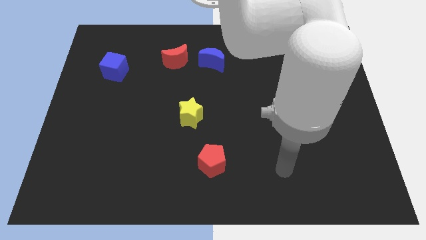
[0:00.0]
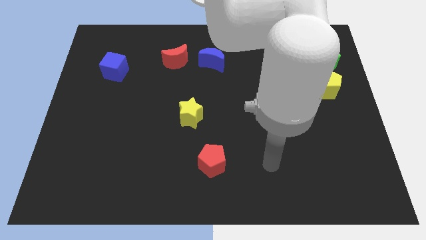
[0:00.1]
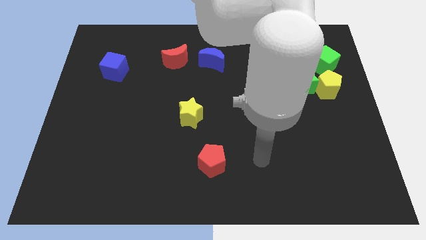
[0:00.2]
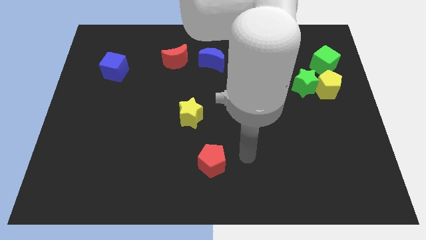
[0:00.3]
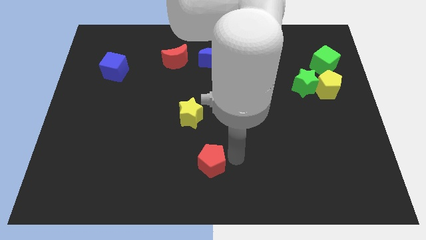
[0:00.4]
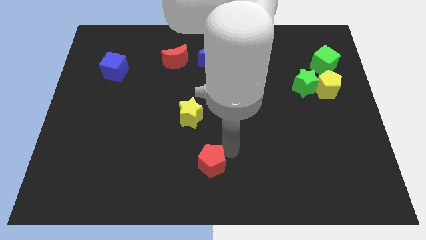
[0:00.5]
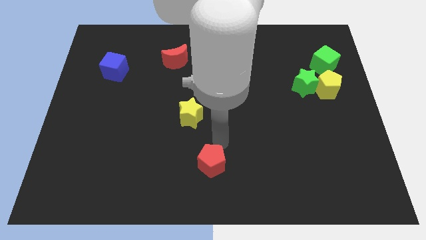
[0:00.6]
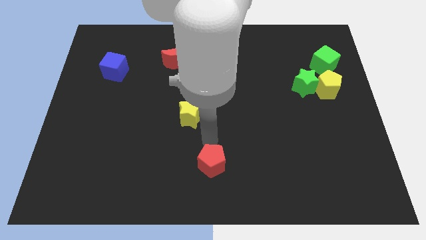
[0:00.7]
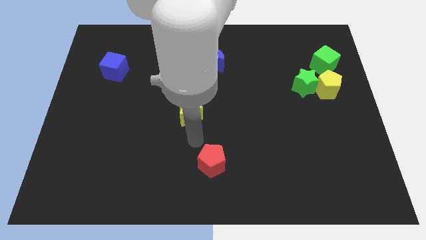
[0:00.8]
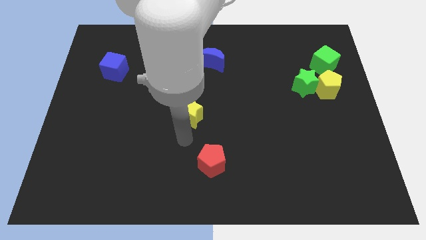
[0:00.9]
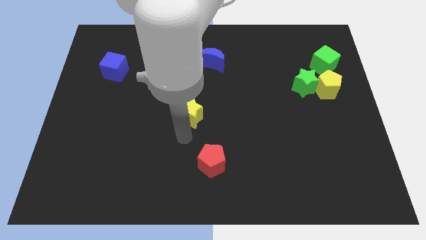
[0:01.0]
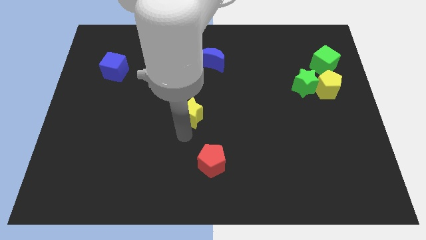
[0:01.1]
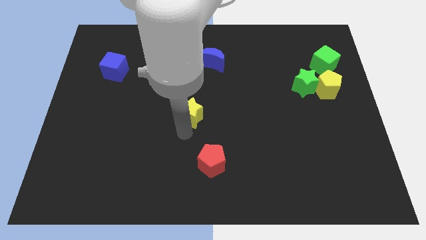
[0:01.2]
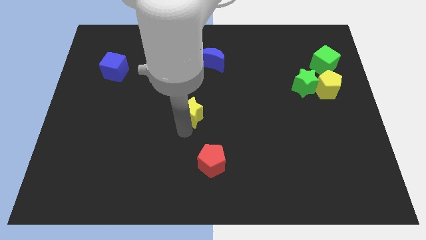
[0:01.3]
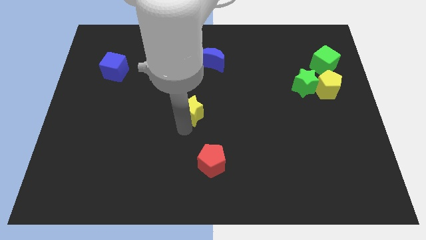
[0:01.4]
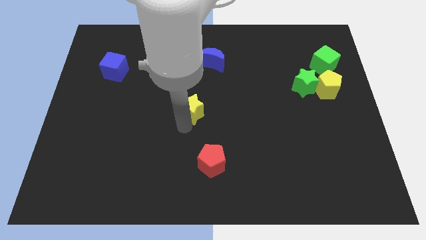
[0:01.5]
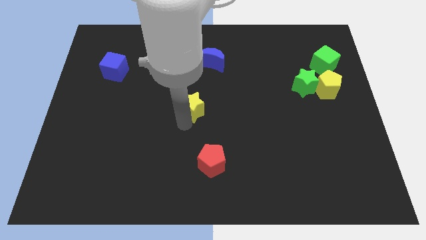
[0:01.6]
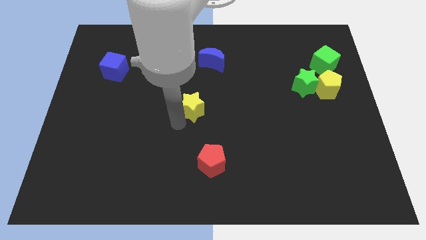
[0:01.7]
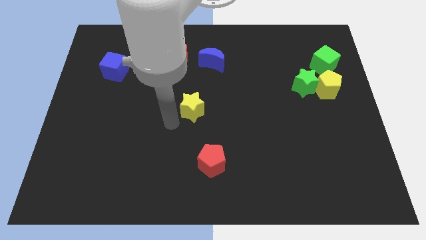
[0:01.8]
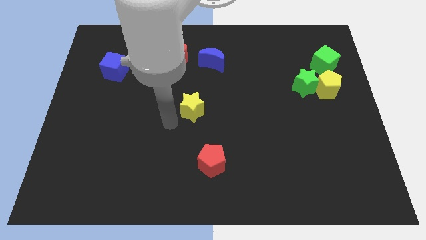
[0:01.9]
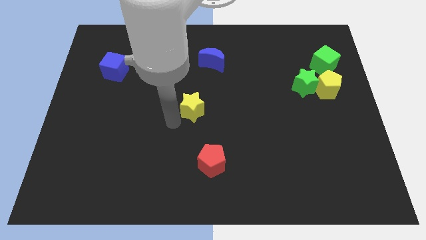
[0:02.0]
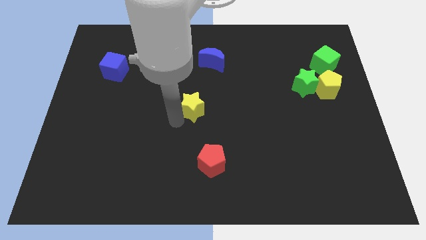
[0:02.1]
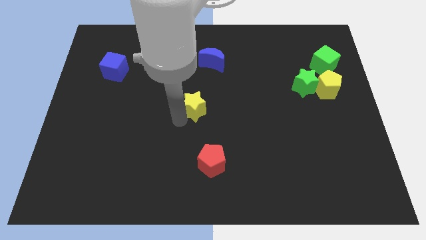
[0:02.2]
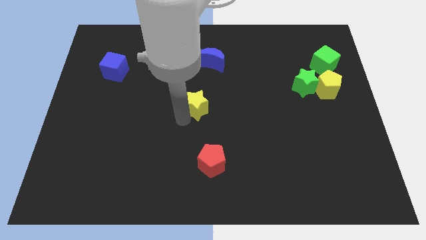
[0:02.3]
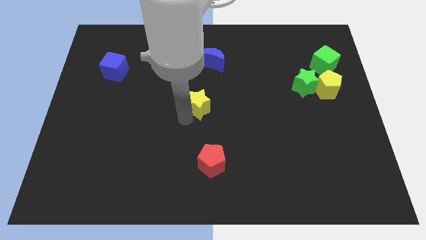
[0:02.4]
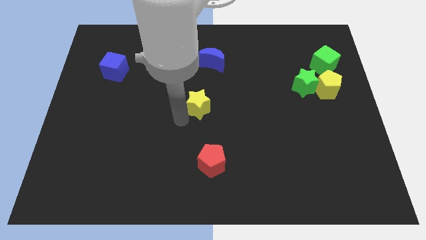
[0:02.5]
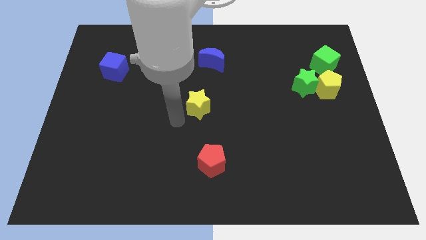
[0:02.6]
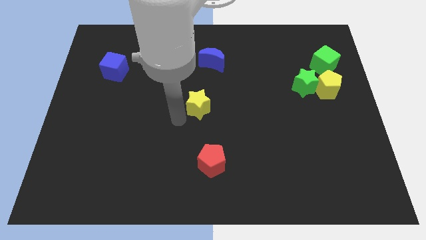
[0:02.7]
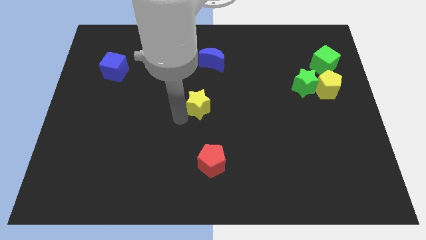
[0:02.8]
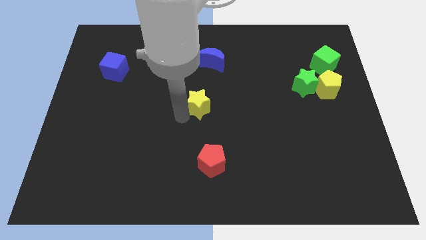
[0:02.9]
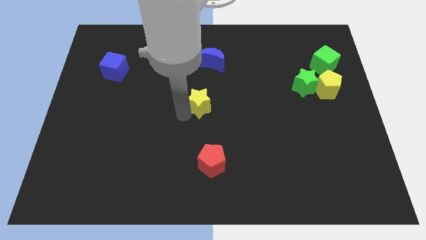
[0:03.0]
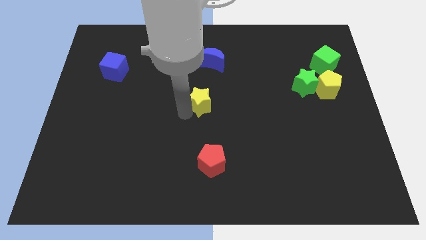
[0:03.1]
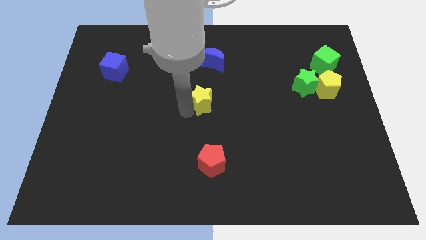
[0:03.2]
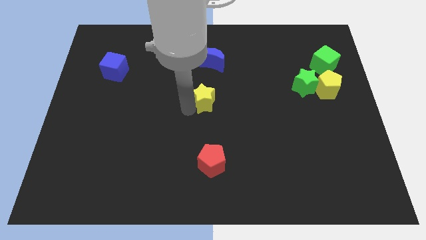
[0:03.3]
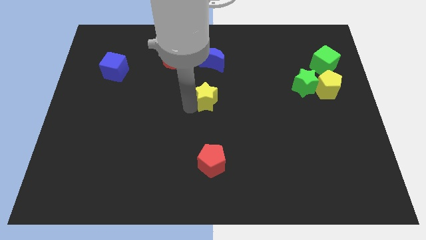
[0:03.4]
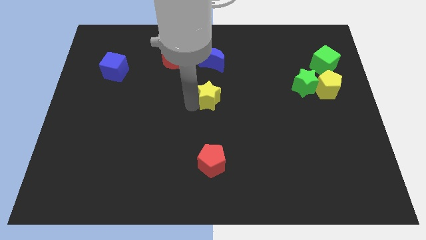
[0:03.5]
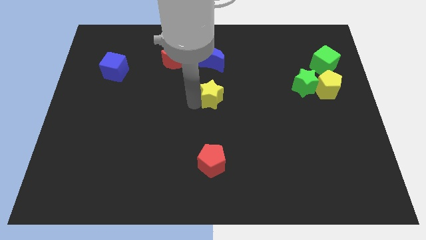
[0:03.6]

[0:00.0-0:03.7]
move the yellow star upwards and to the right diagonally a bit

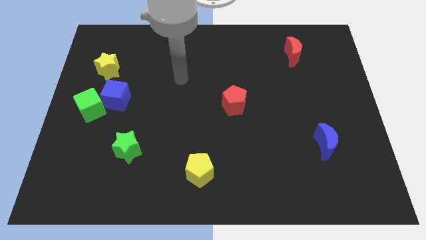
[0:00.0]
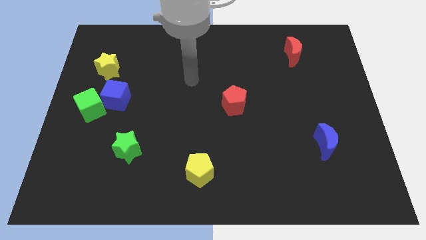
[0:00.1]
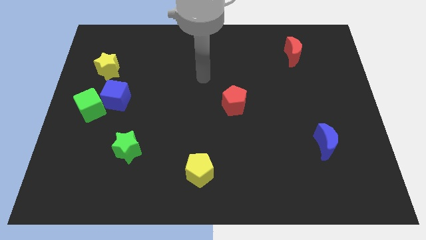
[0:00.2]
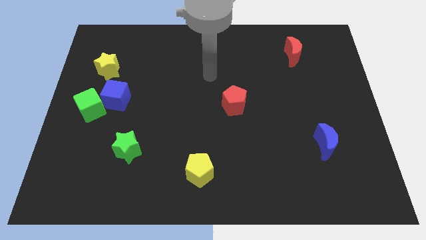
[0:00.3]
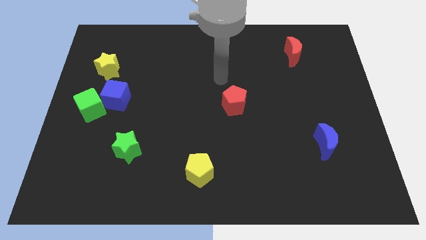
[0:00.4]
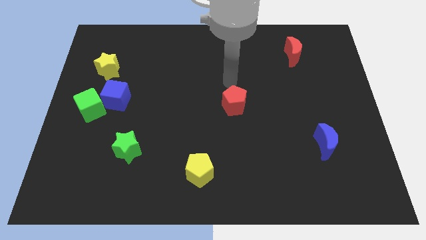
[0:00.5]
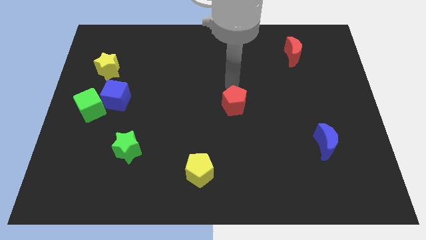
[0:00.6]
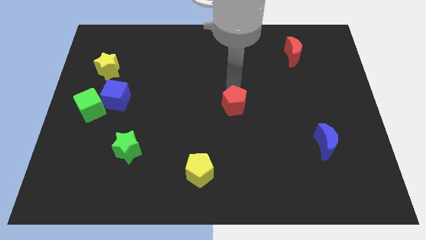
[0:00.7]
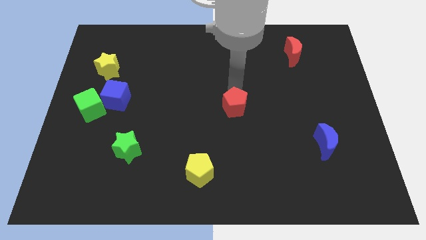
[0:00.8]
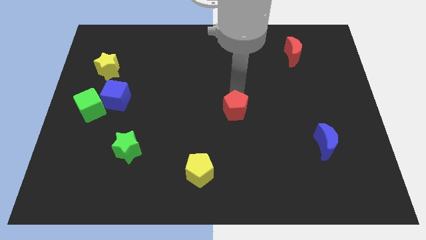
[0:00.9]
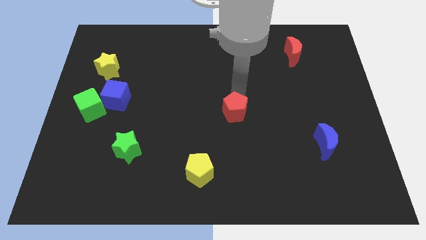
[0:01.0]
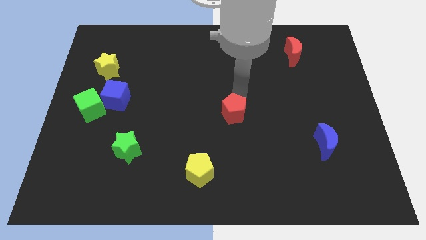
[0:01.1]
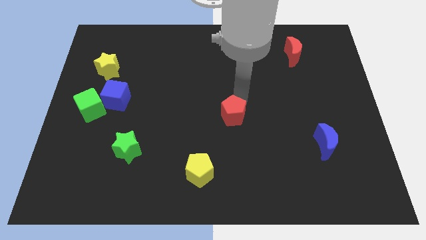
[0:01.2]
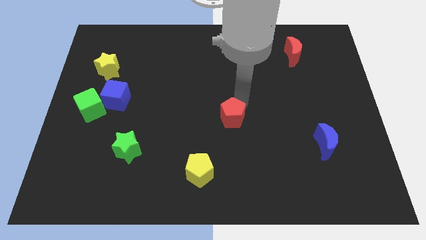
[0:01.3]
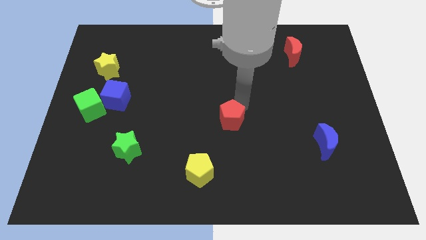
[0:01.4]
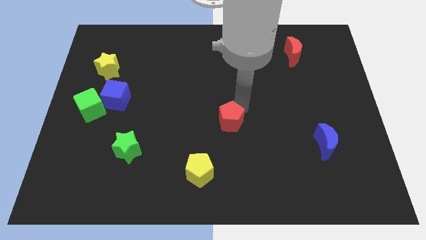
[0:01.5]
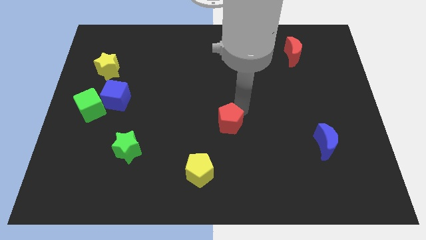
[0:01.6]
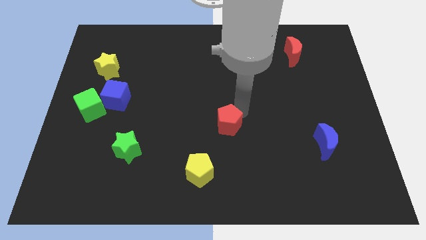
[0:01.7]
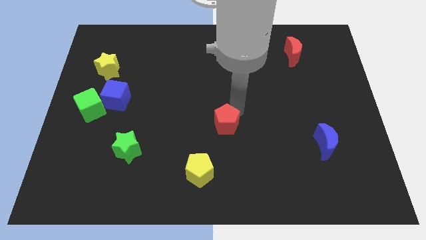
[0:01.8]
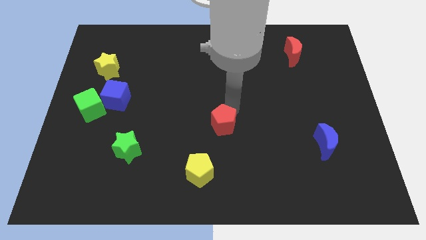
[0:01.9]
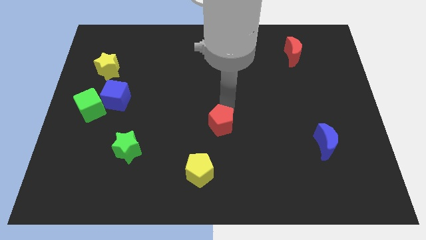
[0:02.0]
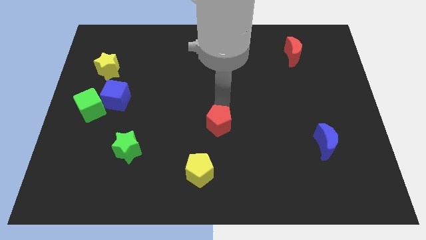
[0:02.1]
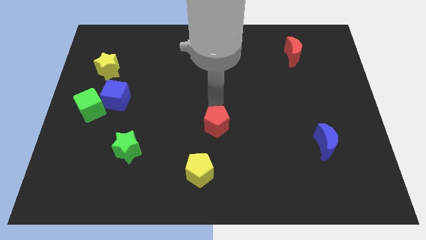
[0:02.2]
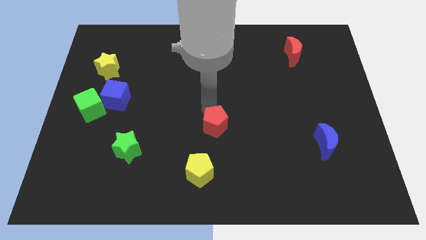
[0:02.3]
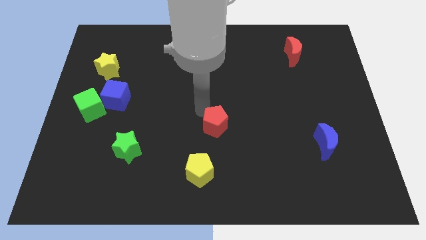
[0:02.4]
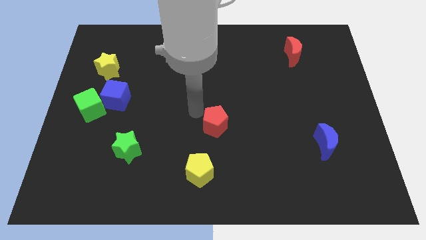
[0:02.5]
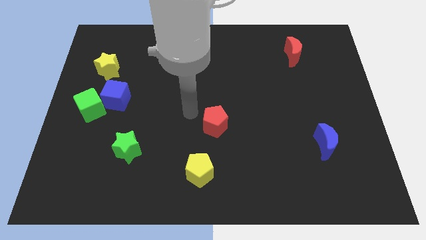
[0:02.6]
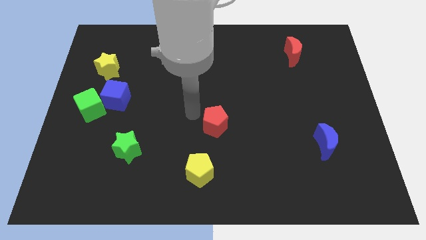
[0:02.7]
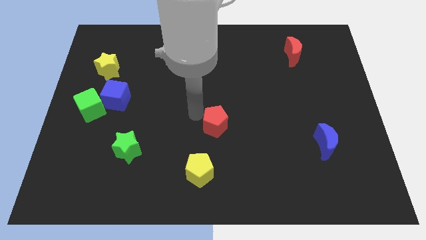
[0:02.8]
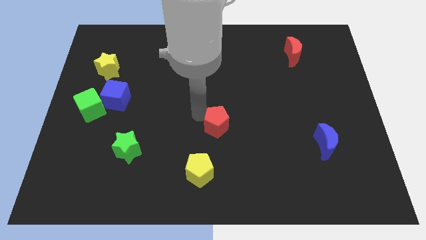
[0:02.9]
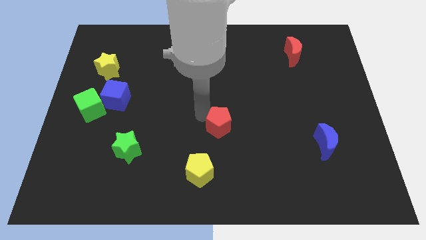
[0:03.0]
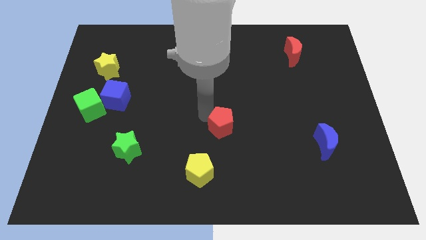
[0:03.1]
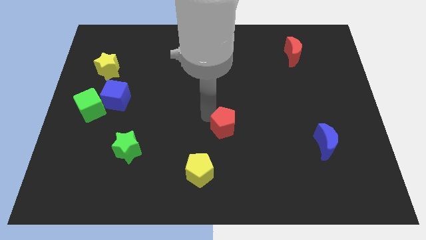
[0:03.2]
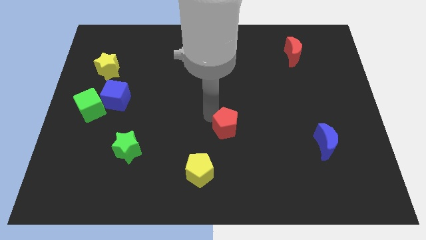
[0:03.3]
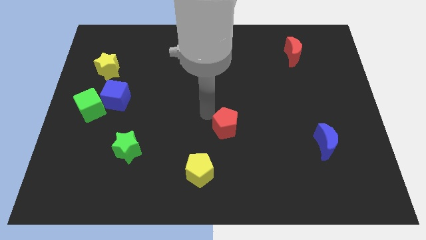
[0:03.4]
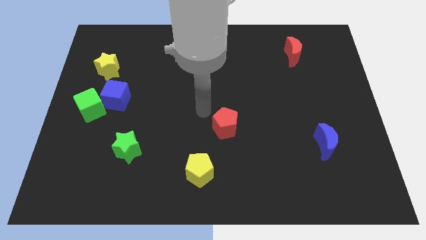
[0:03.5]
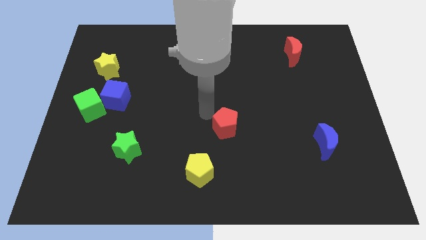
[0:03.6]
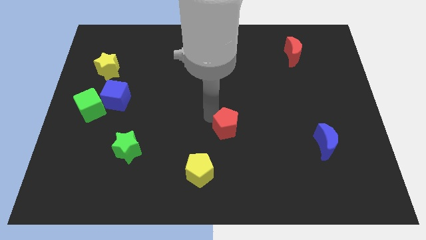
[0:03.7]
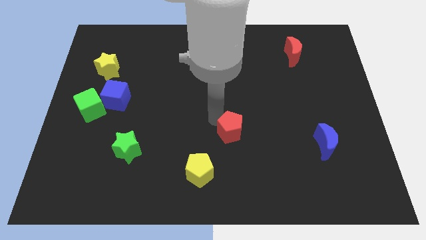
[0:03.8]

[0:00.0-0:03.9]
slightly push the red pentagon down

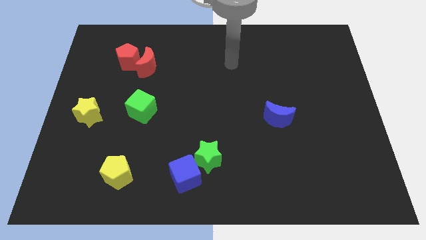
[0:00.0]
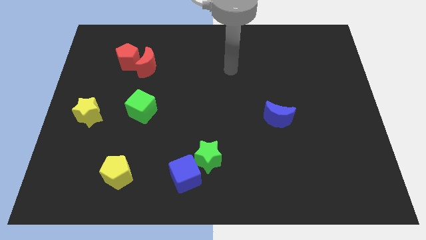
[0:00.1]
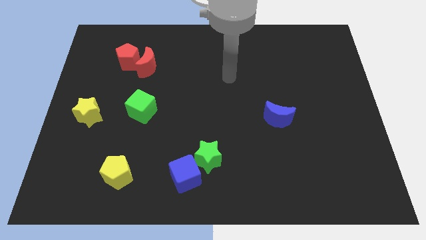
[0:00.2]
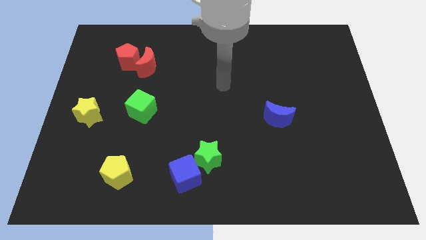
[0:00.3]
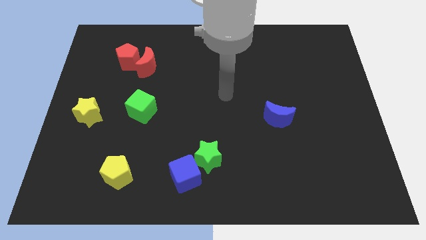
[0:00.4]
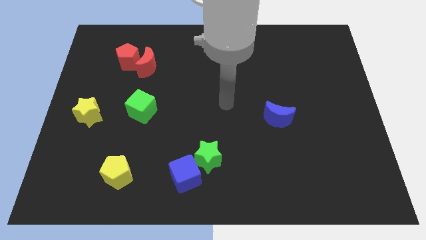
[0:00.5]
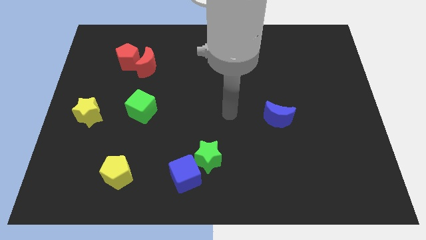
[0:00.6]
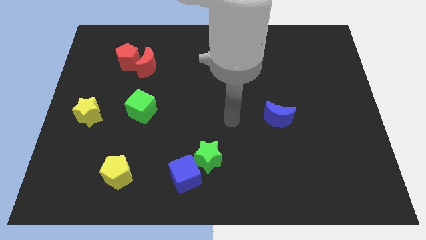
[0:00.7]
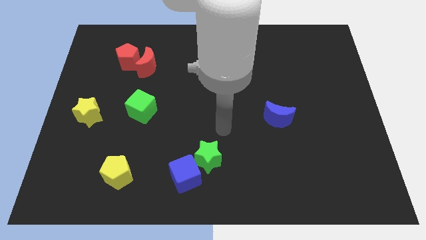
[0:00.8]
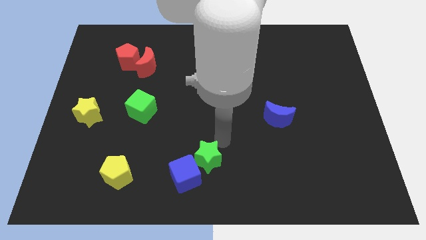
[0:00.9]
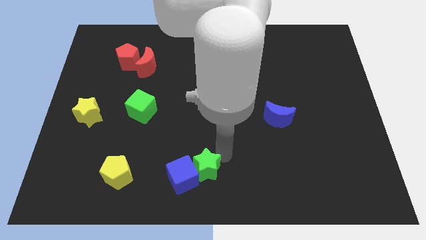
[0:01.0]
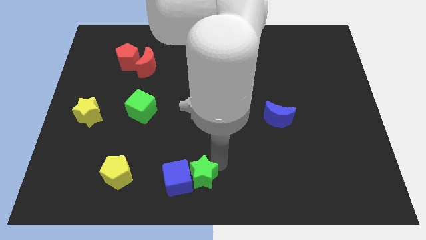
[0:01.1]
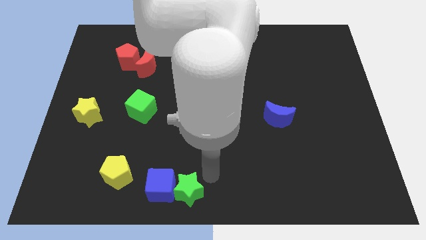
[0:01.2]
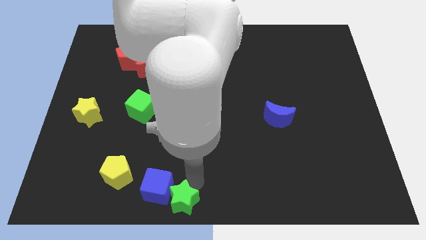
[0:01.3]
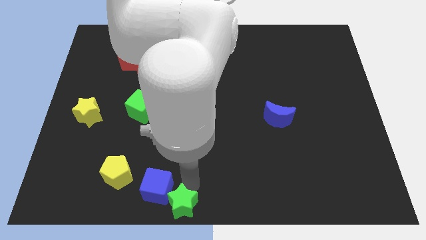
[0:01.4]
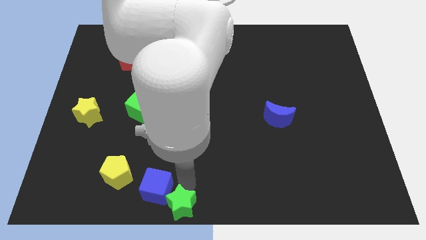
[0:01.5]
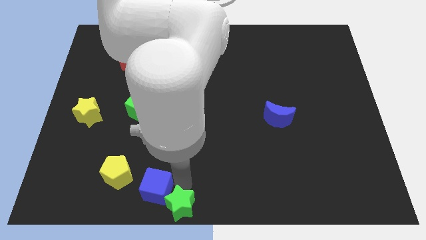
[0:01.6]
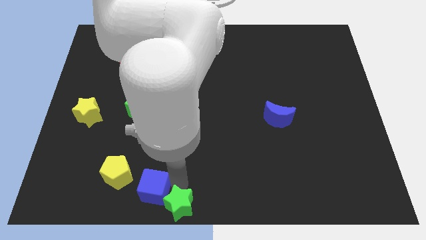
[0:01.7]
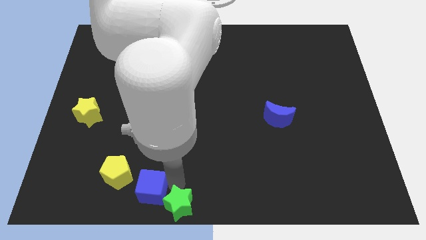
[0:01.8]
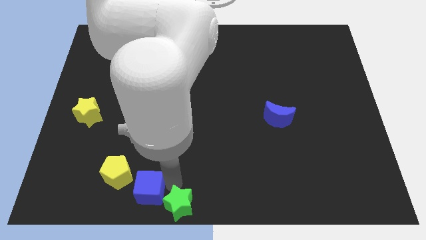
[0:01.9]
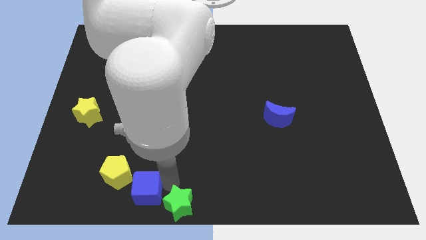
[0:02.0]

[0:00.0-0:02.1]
slide the blue cube left a bit
